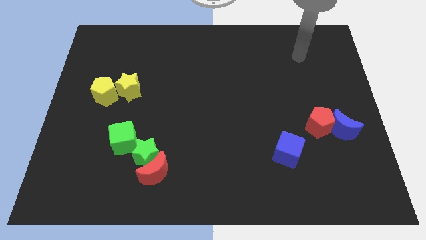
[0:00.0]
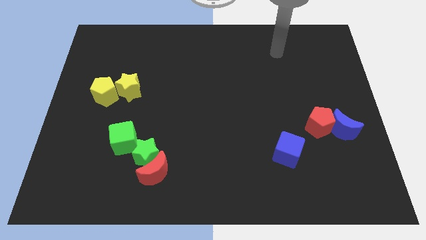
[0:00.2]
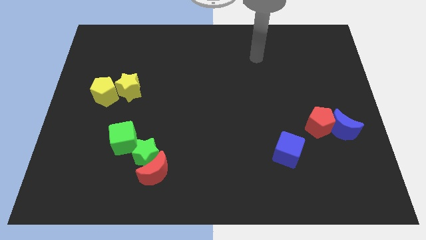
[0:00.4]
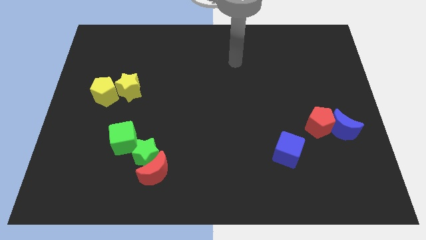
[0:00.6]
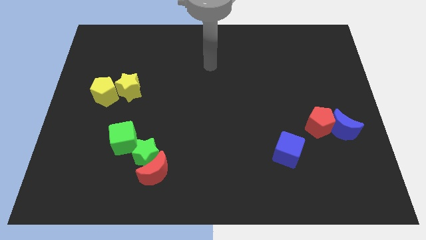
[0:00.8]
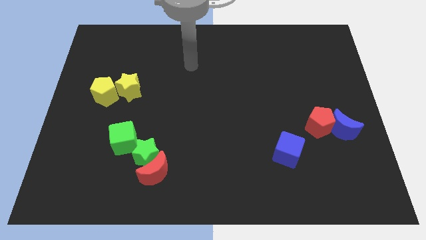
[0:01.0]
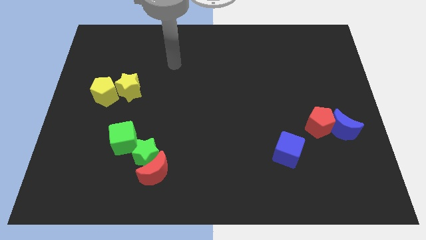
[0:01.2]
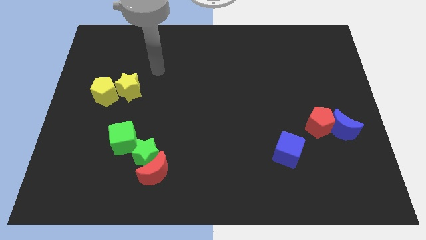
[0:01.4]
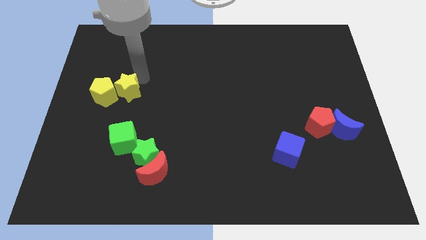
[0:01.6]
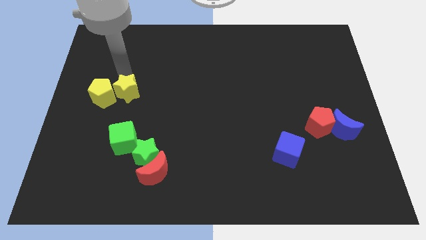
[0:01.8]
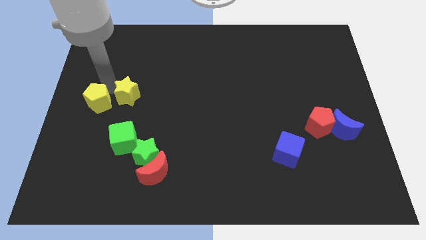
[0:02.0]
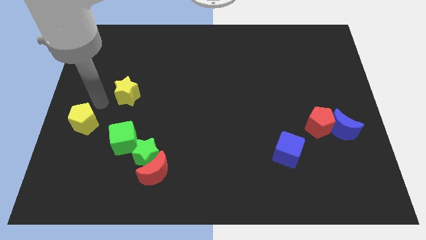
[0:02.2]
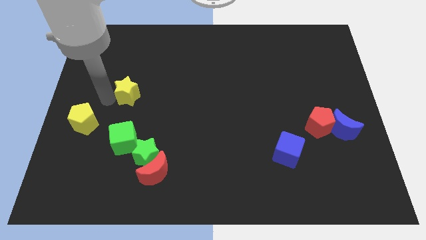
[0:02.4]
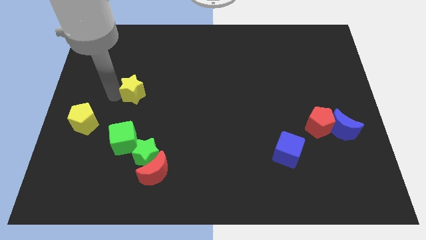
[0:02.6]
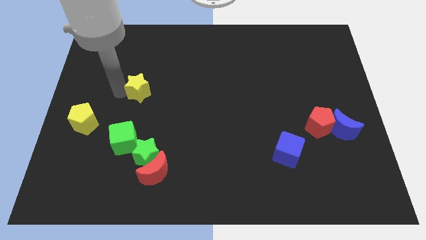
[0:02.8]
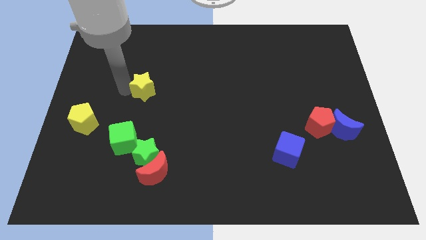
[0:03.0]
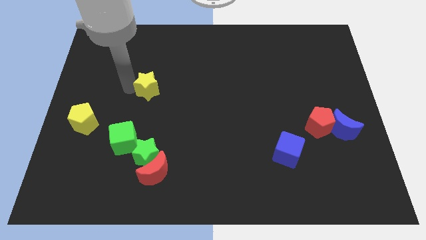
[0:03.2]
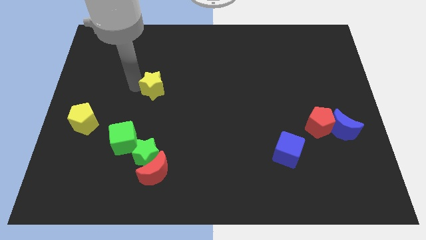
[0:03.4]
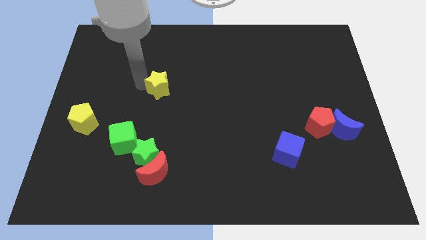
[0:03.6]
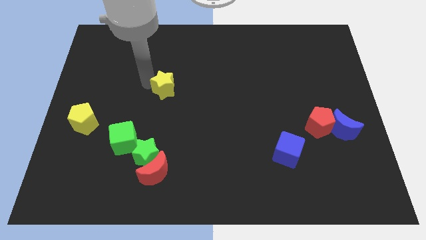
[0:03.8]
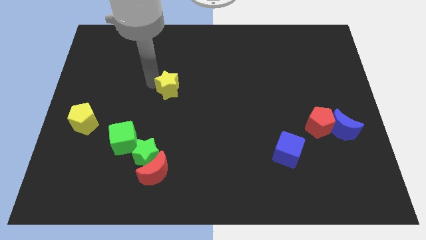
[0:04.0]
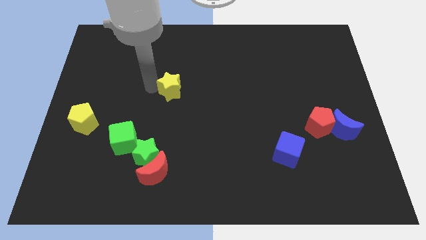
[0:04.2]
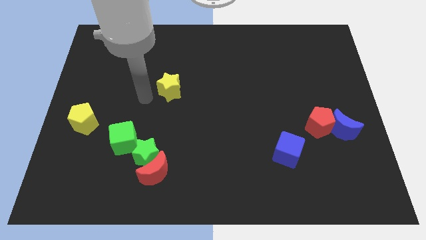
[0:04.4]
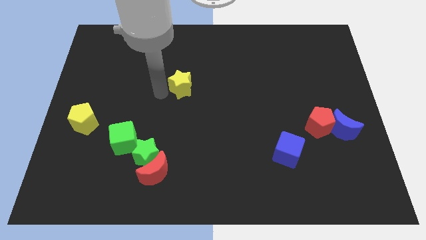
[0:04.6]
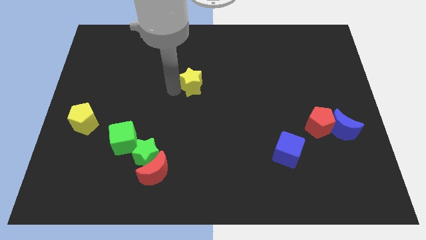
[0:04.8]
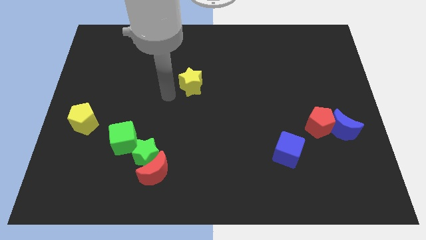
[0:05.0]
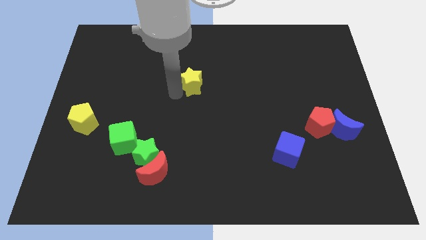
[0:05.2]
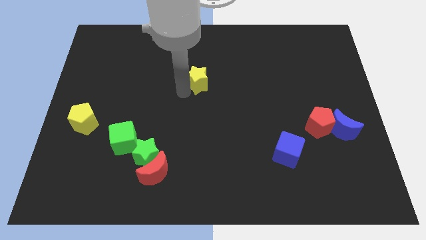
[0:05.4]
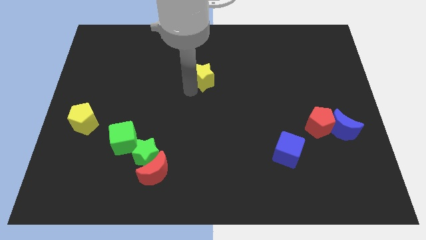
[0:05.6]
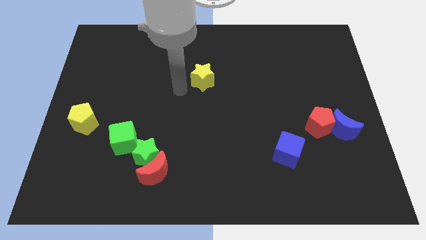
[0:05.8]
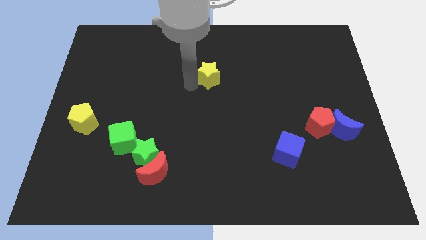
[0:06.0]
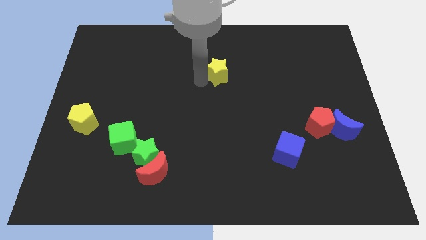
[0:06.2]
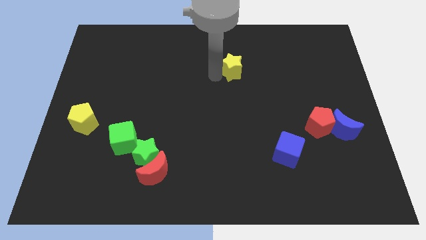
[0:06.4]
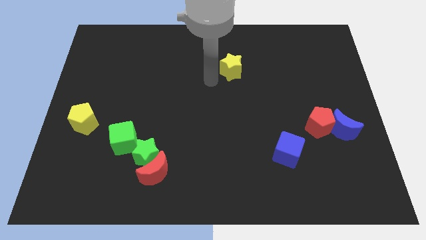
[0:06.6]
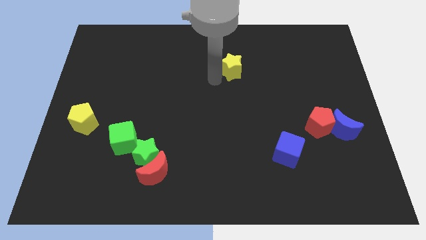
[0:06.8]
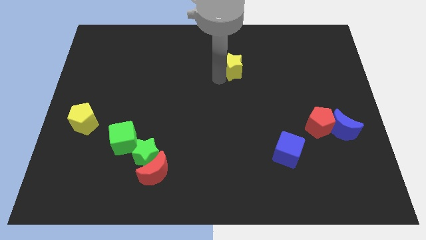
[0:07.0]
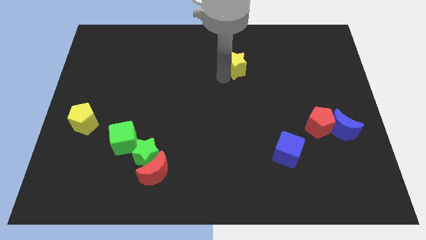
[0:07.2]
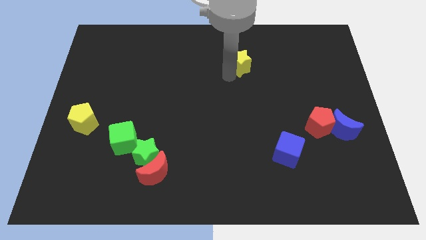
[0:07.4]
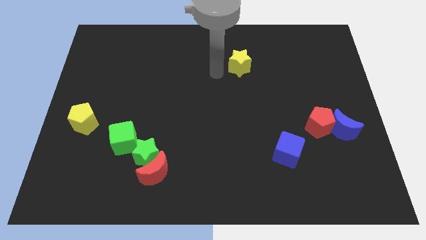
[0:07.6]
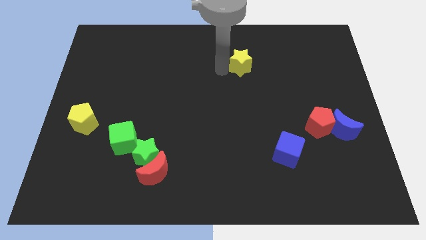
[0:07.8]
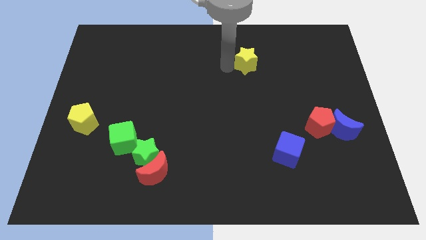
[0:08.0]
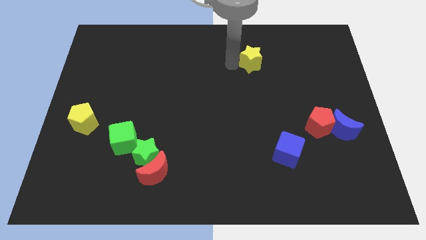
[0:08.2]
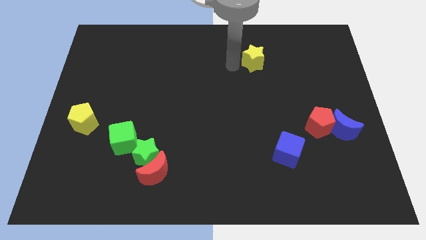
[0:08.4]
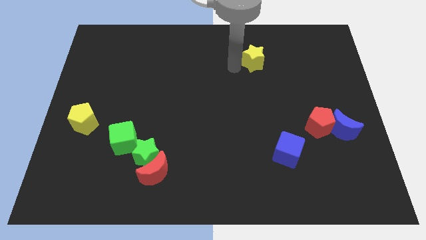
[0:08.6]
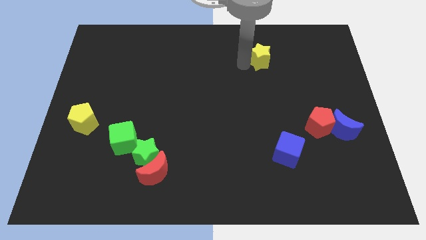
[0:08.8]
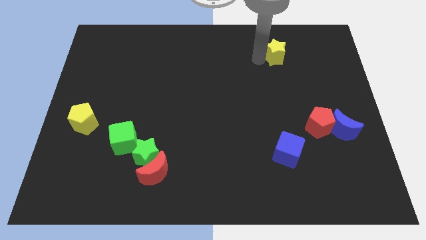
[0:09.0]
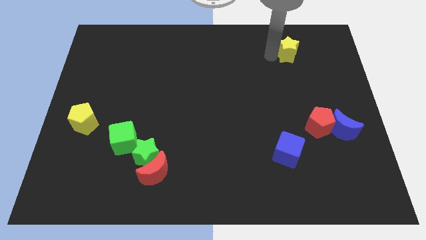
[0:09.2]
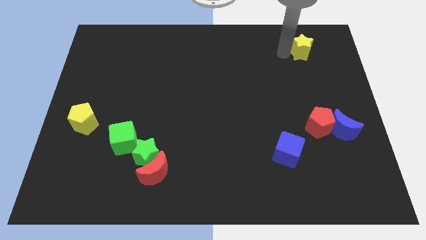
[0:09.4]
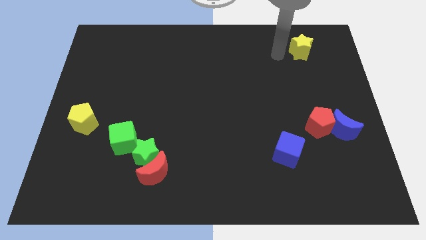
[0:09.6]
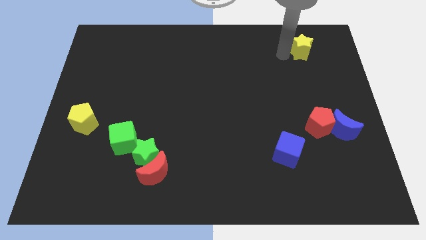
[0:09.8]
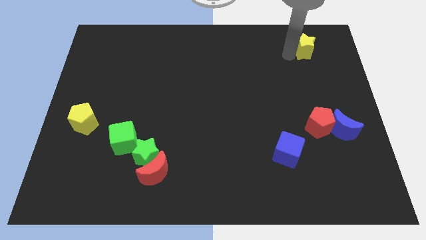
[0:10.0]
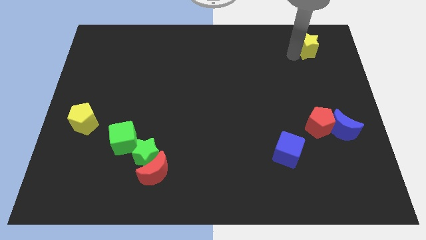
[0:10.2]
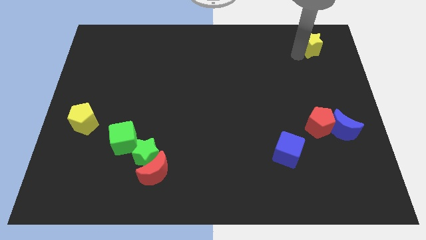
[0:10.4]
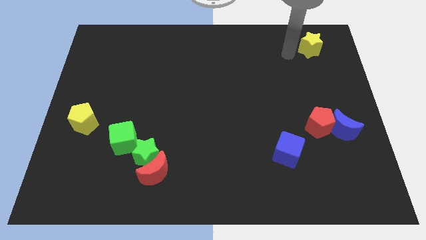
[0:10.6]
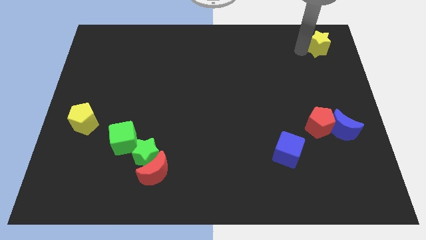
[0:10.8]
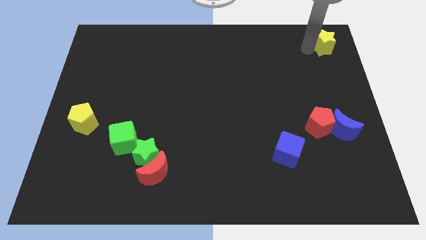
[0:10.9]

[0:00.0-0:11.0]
slide the yellow star to the top right

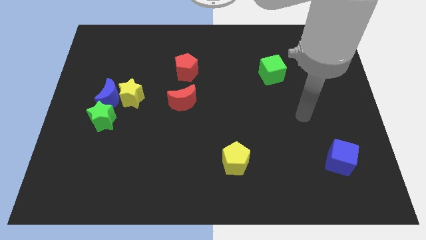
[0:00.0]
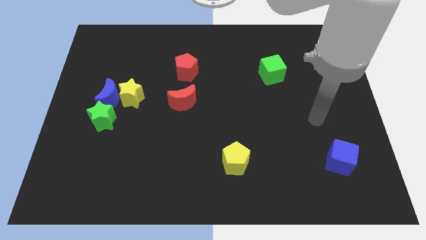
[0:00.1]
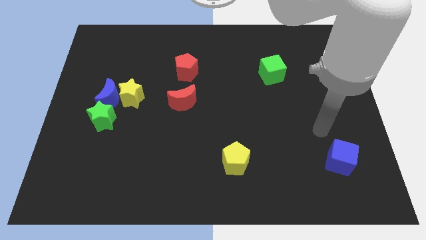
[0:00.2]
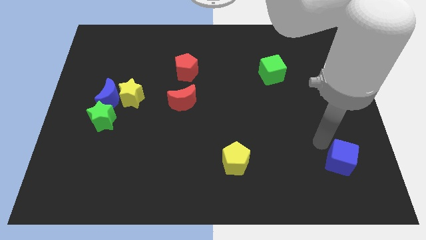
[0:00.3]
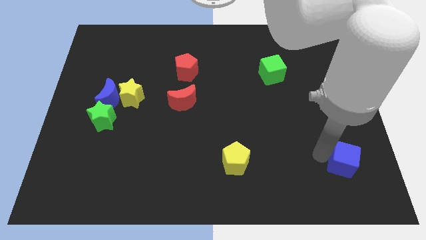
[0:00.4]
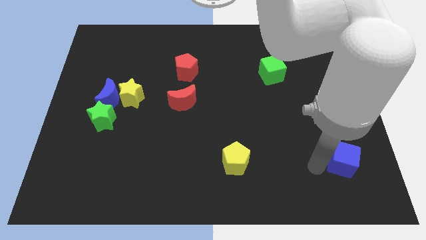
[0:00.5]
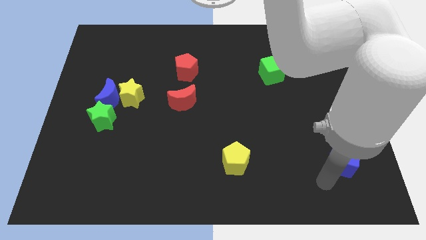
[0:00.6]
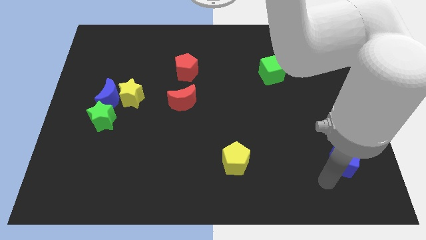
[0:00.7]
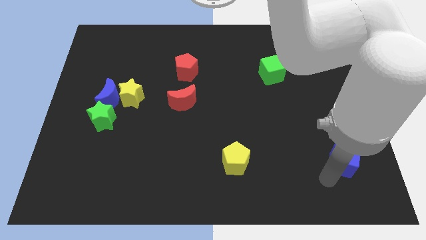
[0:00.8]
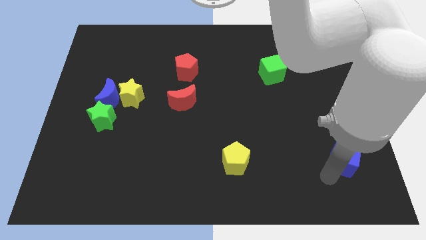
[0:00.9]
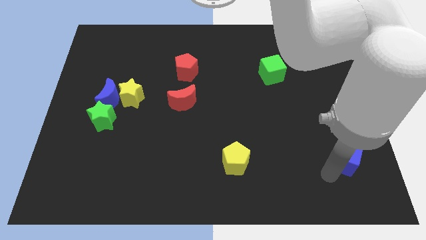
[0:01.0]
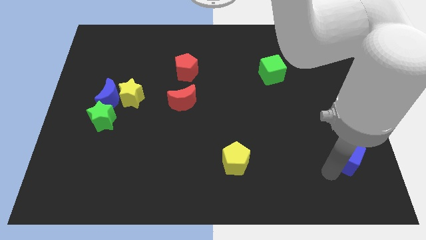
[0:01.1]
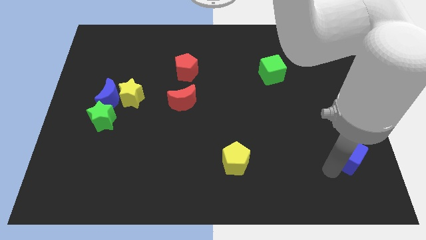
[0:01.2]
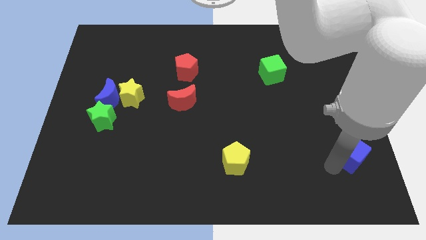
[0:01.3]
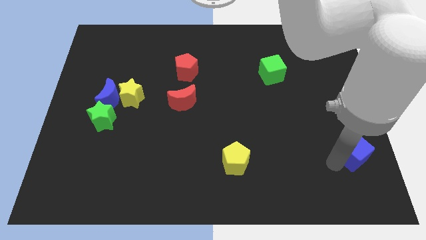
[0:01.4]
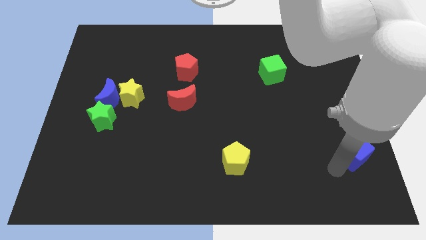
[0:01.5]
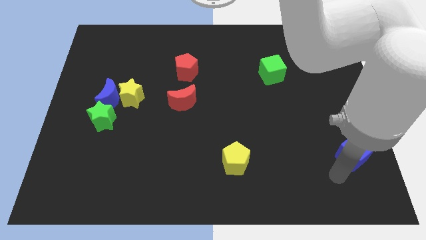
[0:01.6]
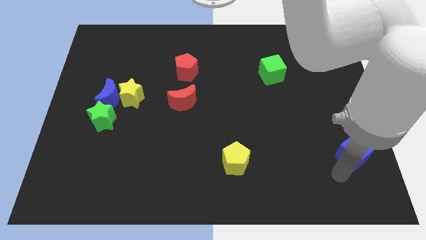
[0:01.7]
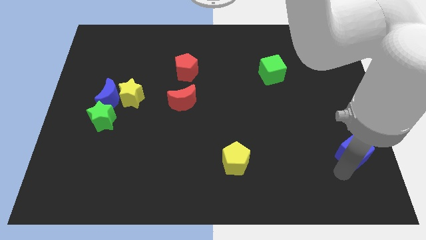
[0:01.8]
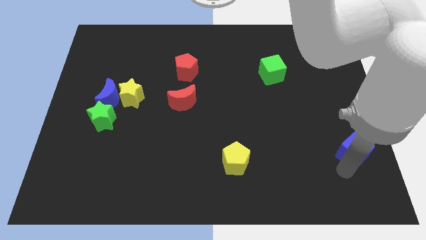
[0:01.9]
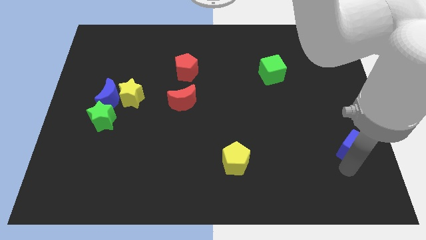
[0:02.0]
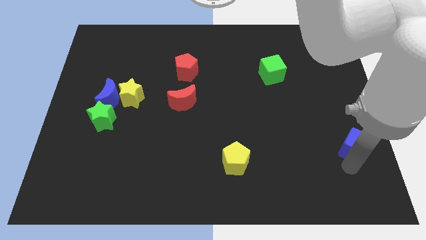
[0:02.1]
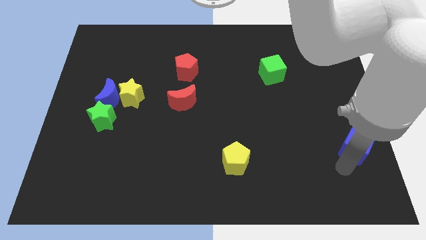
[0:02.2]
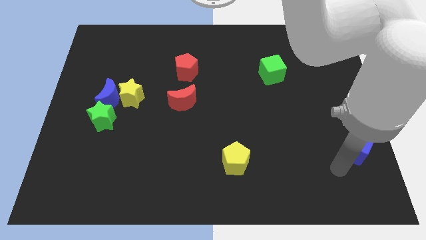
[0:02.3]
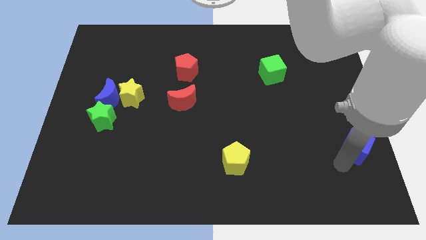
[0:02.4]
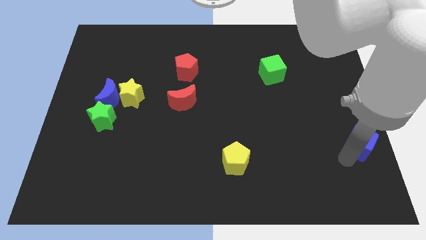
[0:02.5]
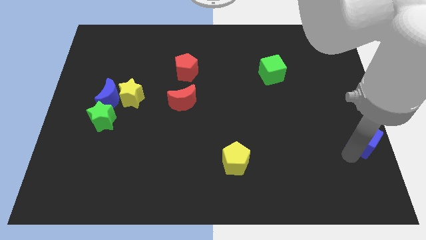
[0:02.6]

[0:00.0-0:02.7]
slide the blue cube to the right side of the board
